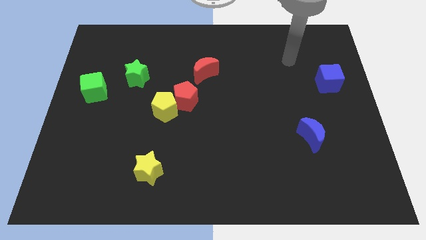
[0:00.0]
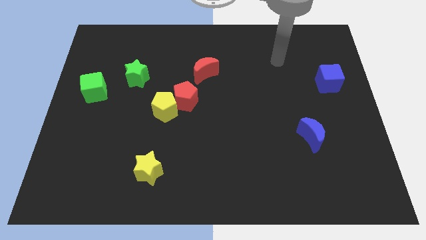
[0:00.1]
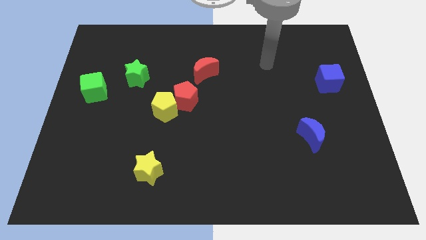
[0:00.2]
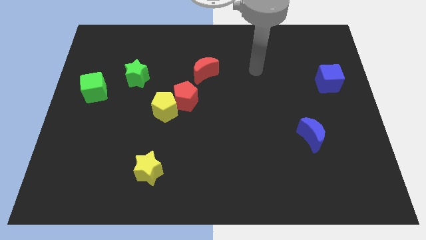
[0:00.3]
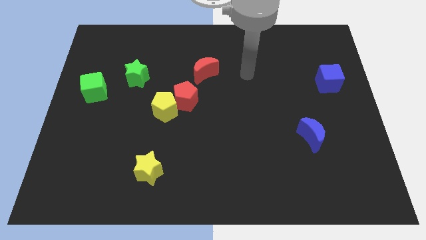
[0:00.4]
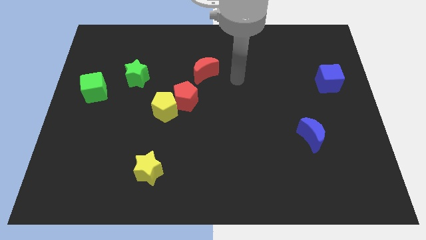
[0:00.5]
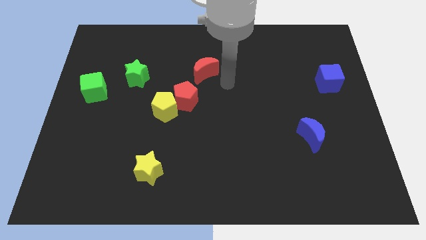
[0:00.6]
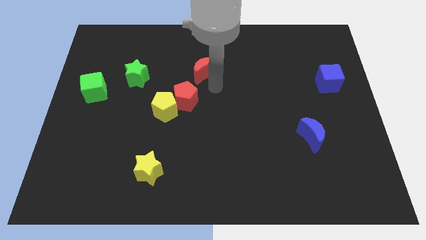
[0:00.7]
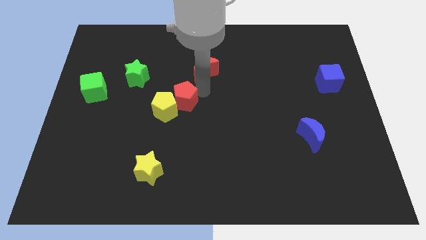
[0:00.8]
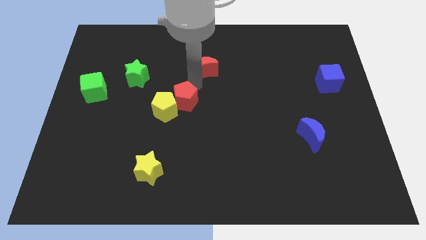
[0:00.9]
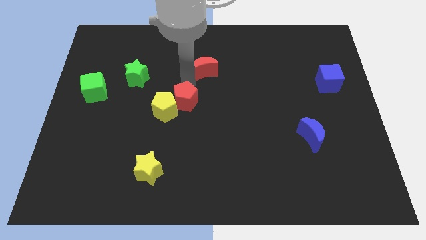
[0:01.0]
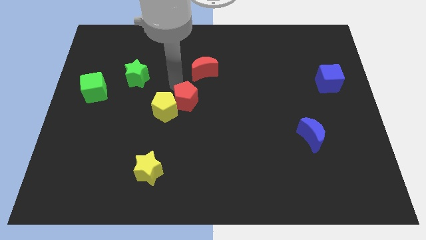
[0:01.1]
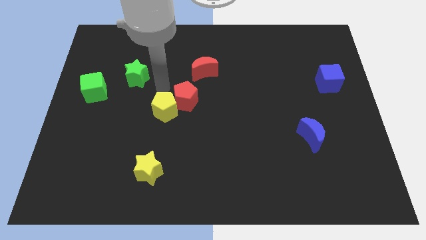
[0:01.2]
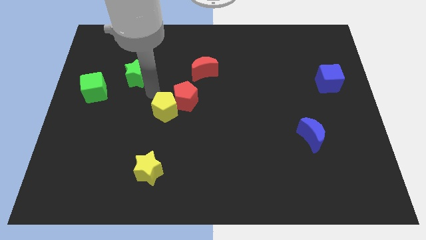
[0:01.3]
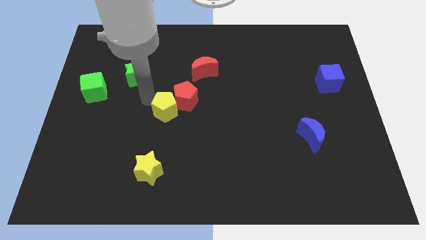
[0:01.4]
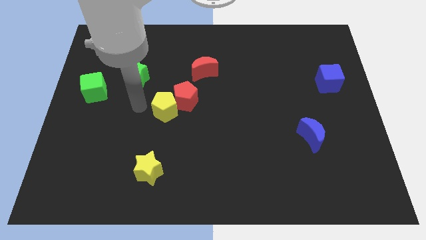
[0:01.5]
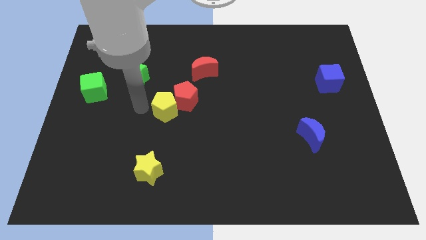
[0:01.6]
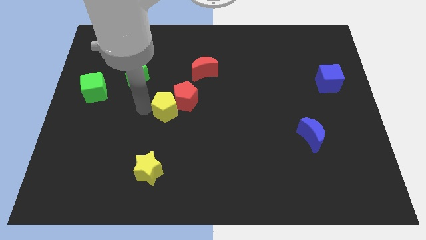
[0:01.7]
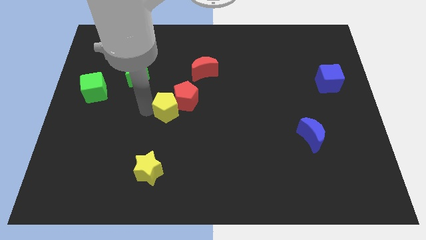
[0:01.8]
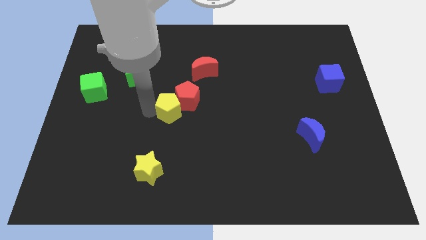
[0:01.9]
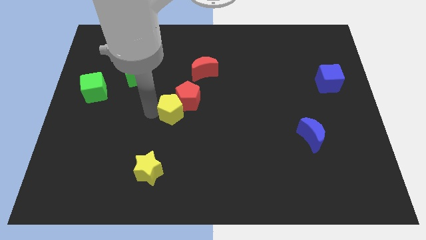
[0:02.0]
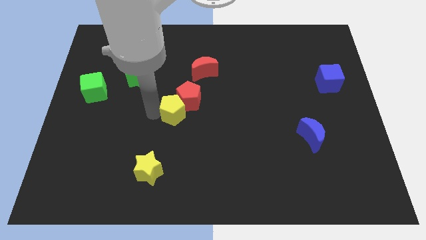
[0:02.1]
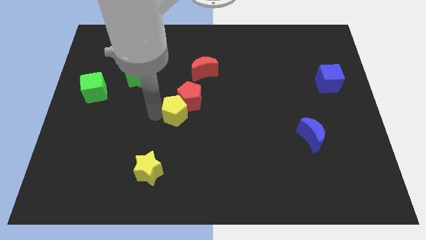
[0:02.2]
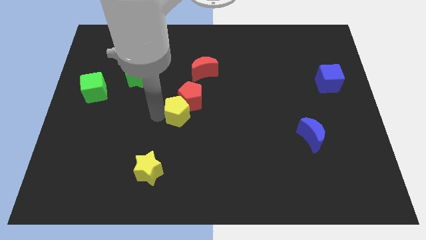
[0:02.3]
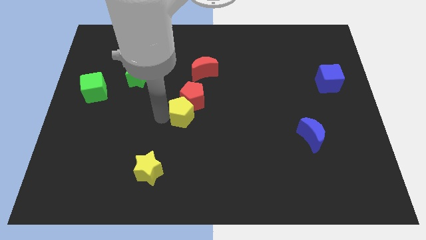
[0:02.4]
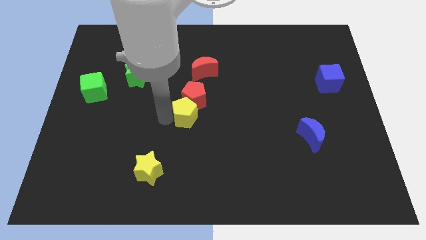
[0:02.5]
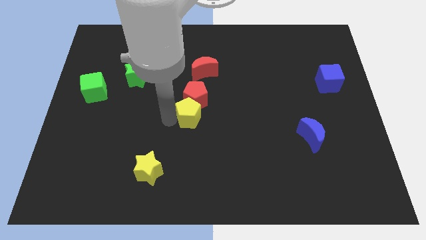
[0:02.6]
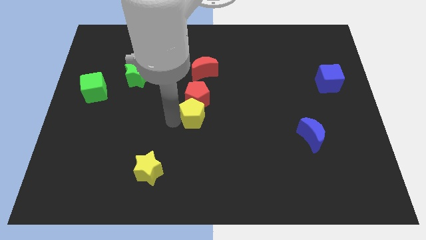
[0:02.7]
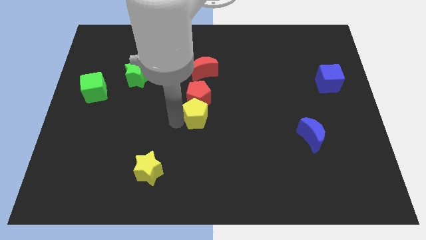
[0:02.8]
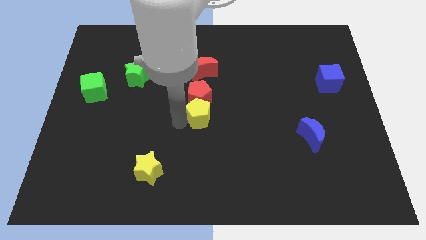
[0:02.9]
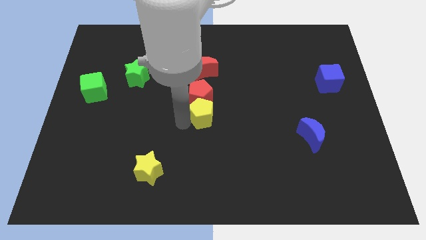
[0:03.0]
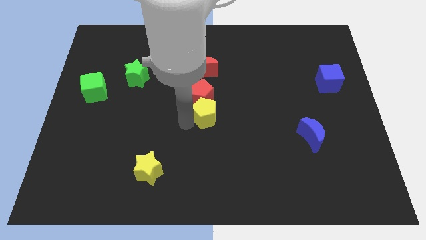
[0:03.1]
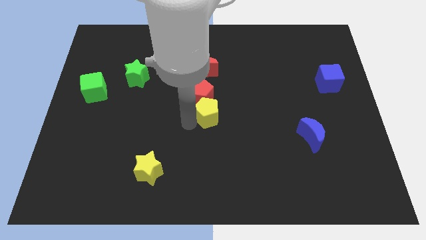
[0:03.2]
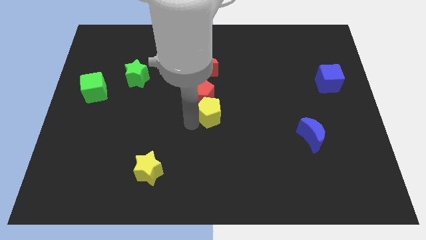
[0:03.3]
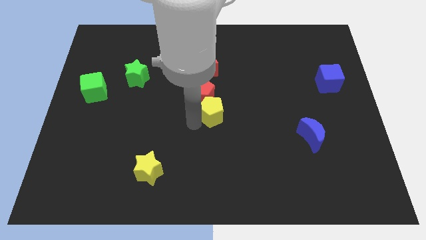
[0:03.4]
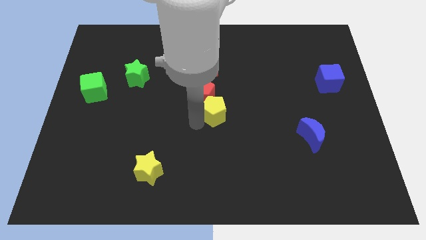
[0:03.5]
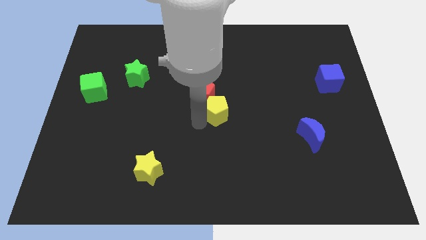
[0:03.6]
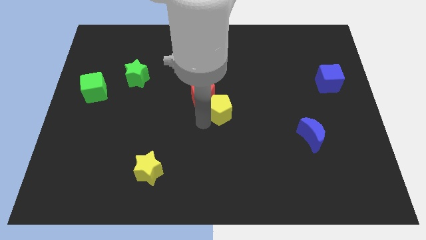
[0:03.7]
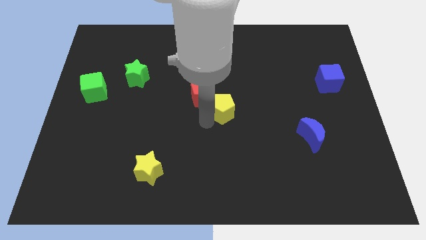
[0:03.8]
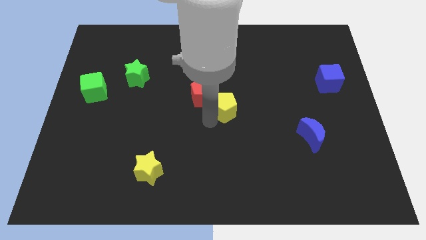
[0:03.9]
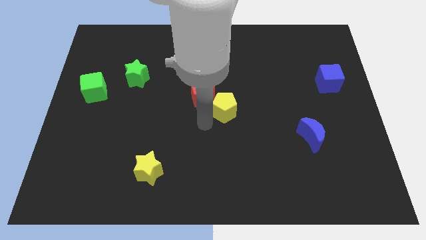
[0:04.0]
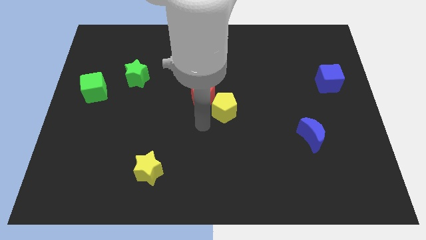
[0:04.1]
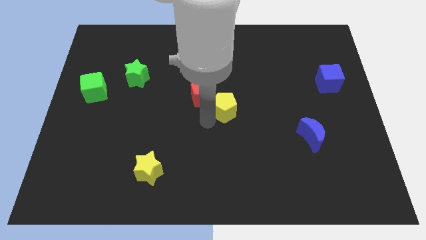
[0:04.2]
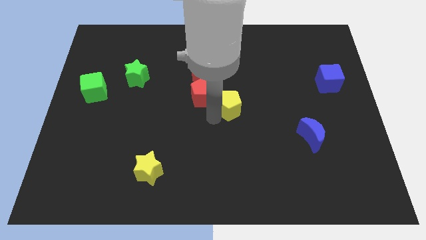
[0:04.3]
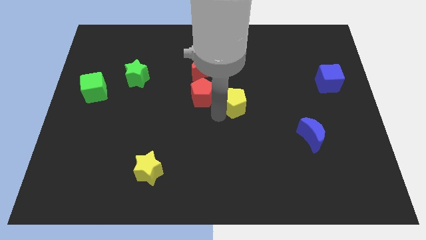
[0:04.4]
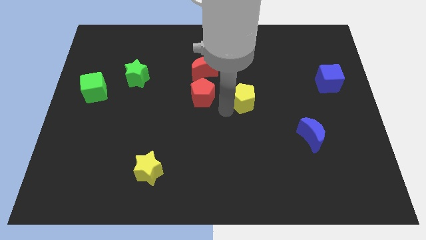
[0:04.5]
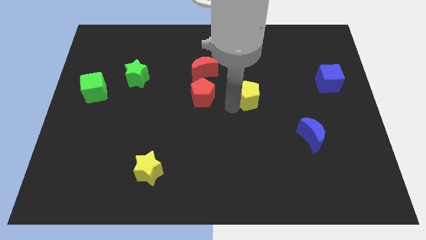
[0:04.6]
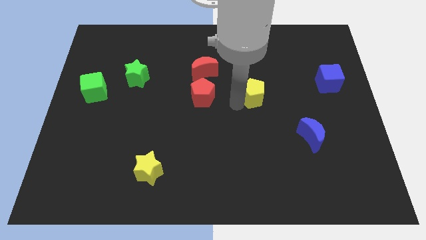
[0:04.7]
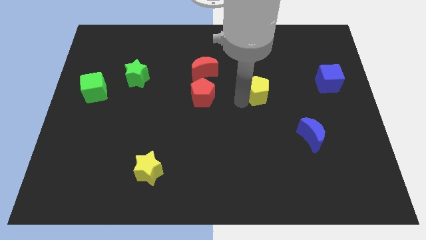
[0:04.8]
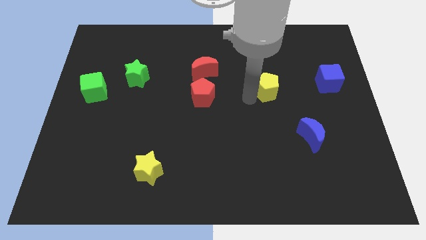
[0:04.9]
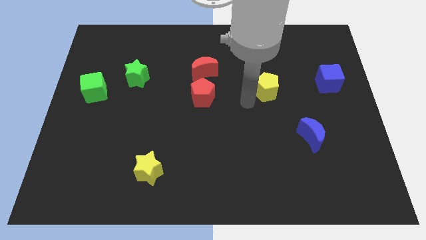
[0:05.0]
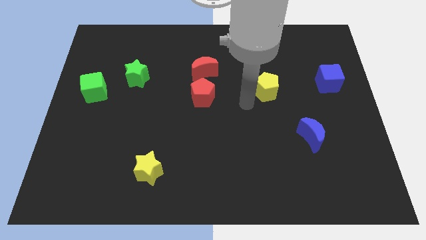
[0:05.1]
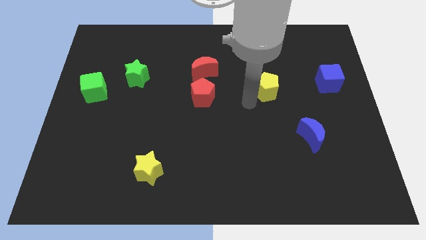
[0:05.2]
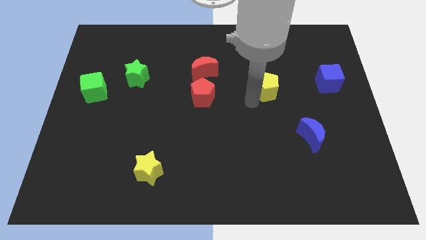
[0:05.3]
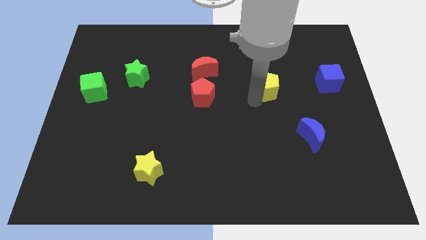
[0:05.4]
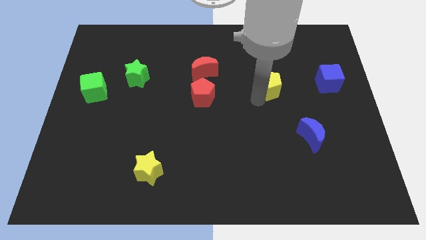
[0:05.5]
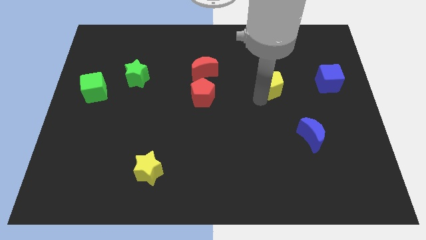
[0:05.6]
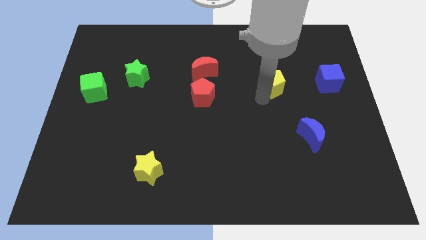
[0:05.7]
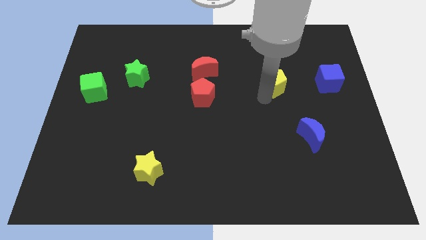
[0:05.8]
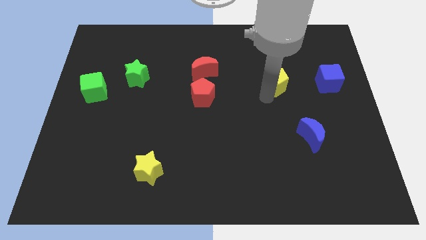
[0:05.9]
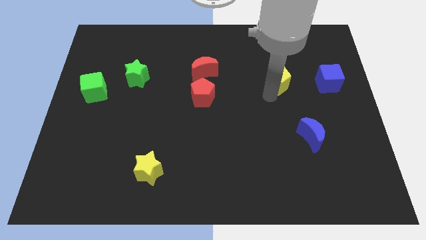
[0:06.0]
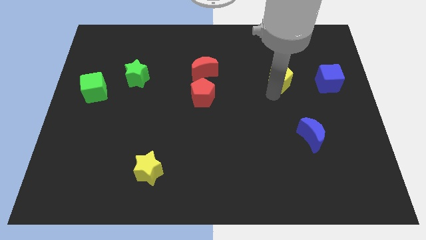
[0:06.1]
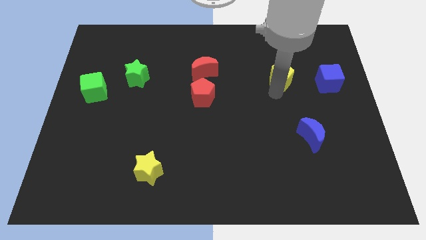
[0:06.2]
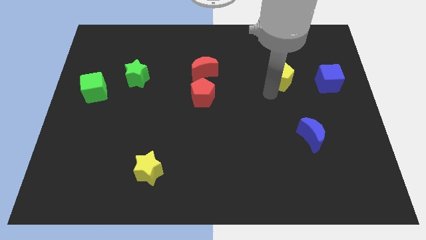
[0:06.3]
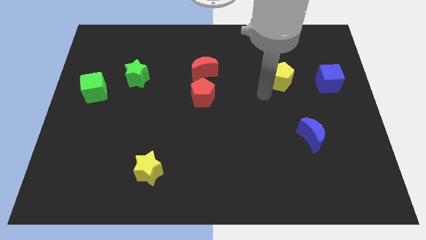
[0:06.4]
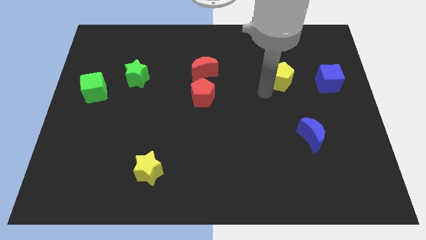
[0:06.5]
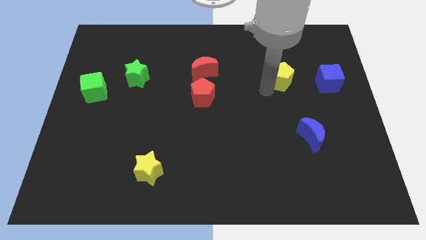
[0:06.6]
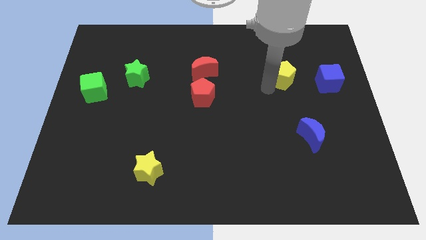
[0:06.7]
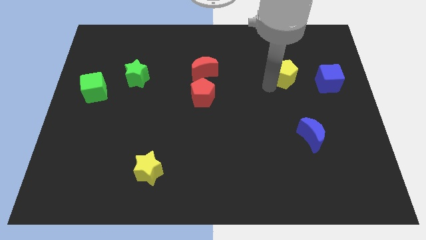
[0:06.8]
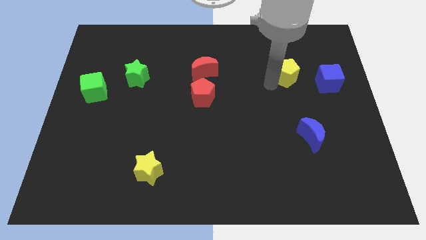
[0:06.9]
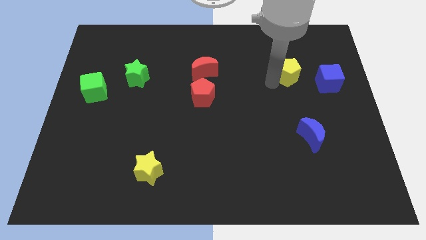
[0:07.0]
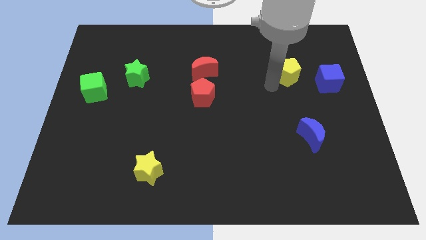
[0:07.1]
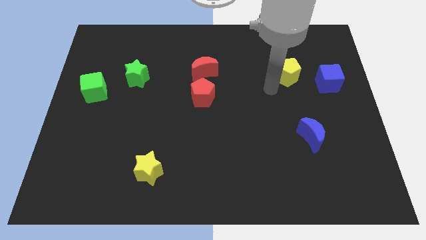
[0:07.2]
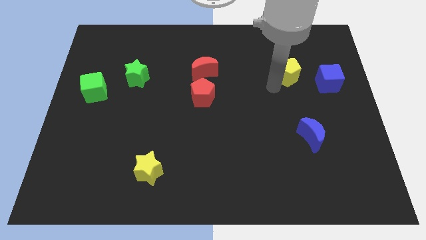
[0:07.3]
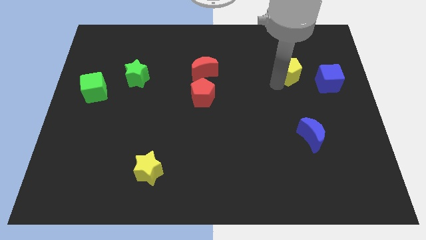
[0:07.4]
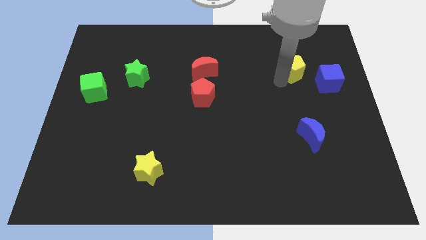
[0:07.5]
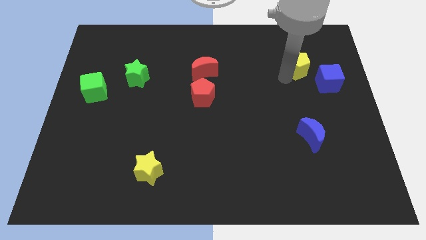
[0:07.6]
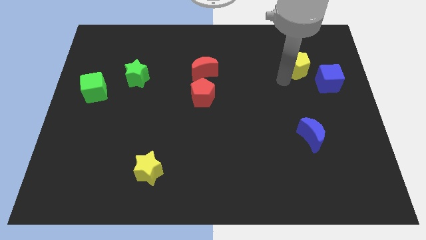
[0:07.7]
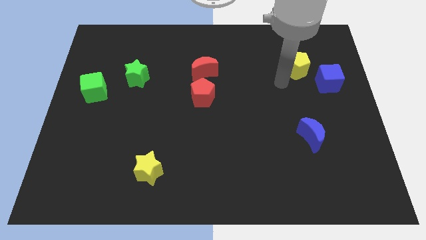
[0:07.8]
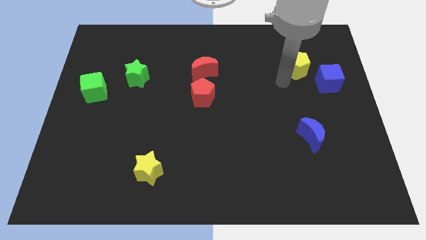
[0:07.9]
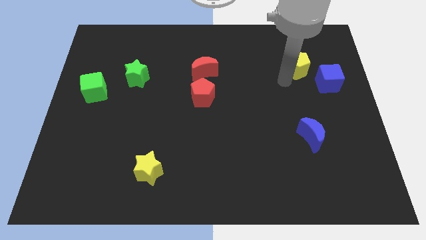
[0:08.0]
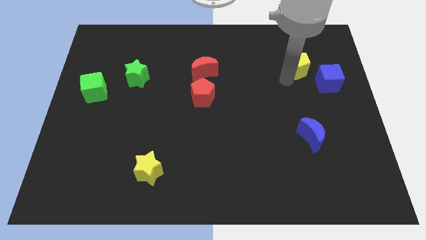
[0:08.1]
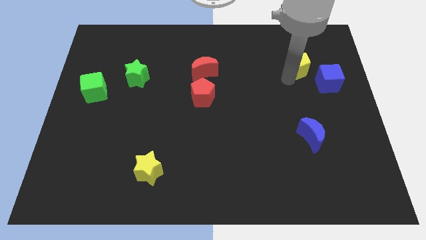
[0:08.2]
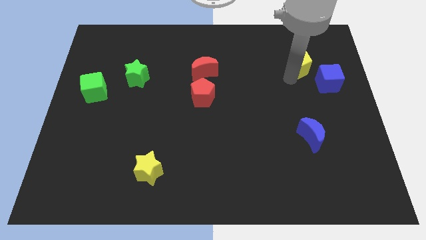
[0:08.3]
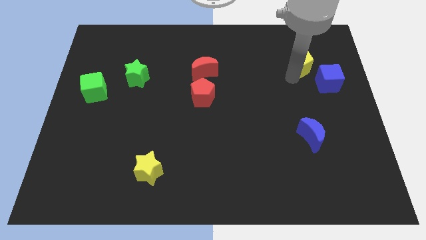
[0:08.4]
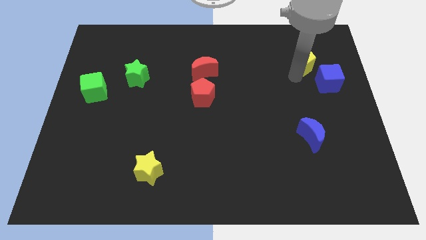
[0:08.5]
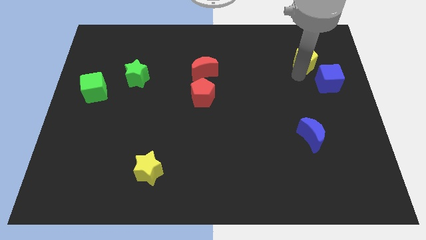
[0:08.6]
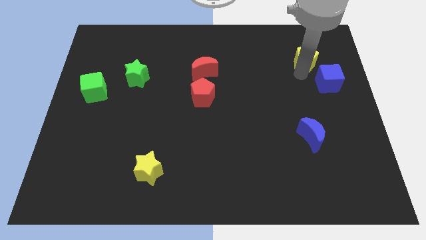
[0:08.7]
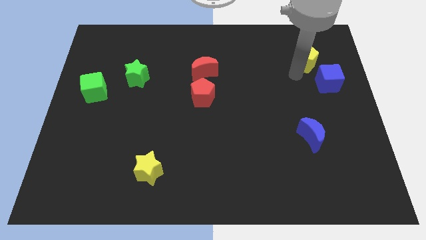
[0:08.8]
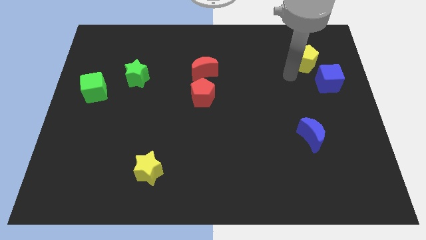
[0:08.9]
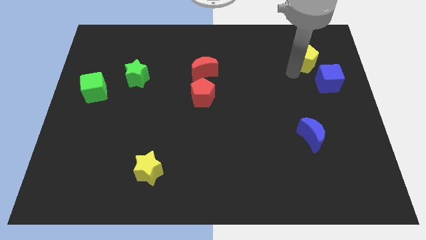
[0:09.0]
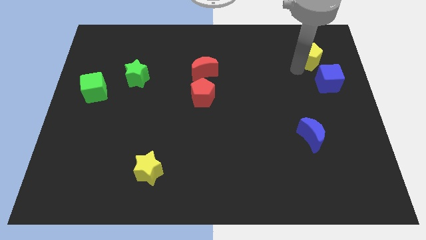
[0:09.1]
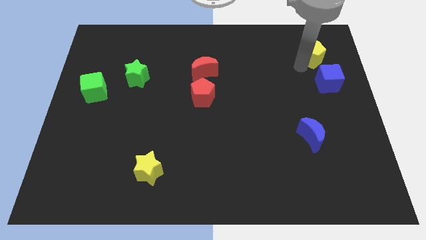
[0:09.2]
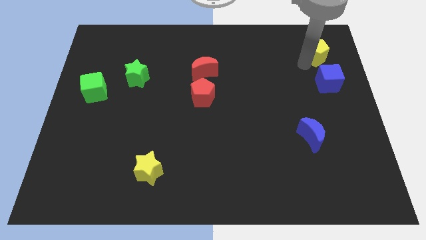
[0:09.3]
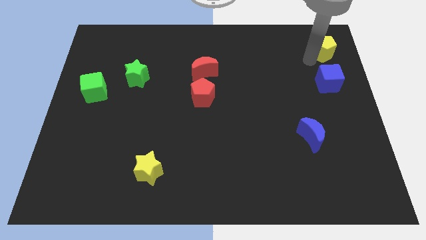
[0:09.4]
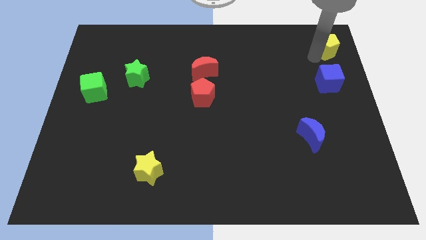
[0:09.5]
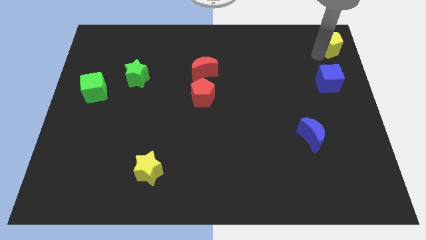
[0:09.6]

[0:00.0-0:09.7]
move the yellow pentagon to the upper right corner
